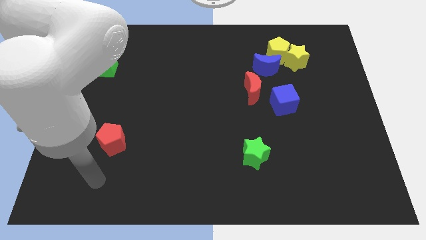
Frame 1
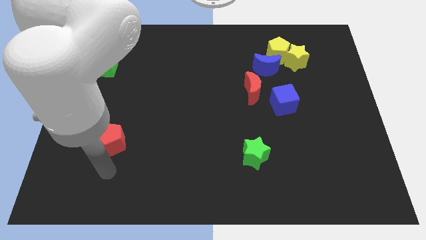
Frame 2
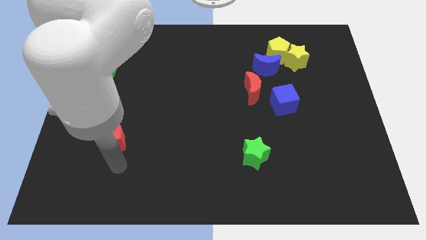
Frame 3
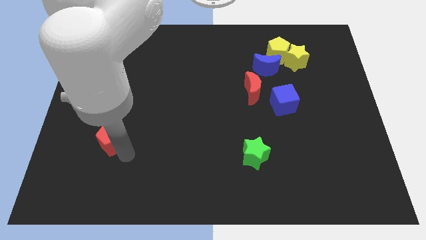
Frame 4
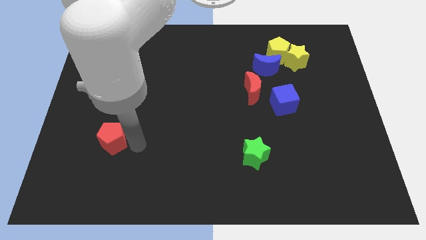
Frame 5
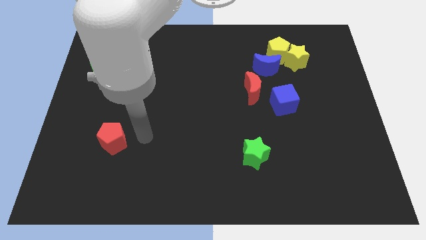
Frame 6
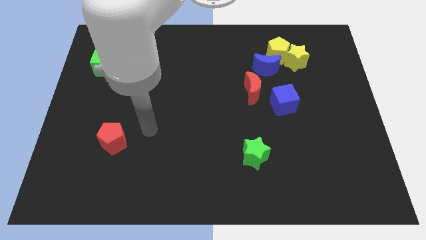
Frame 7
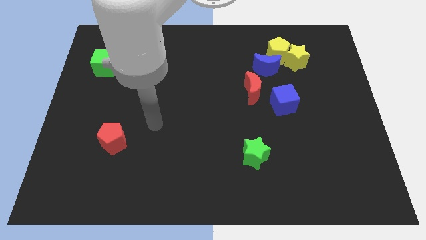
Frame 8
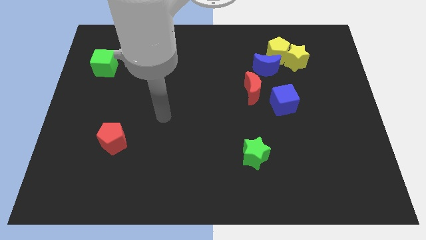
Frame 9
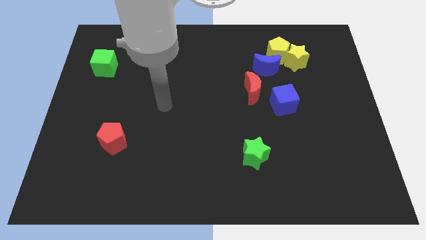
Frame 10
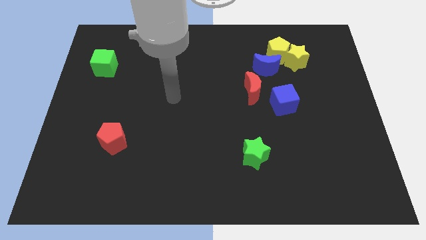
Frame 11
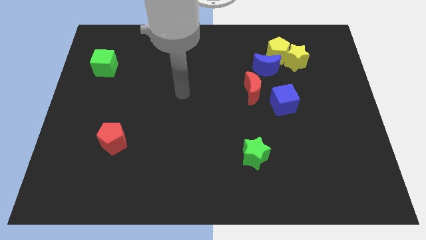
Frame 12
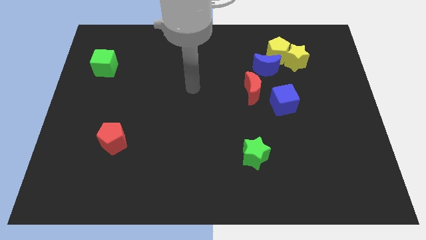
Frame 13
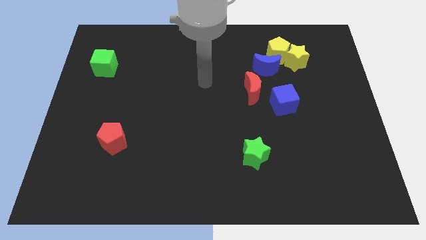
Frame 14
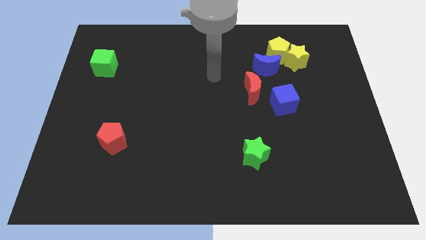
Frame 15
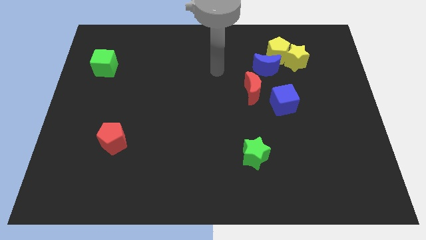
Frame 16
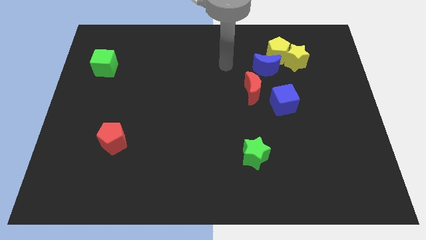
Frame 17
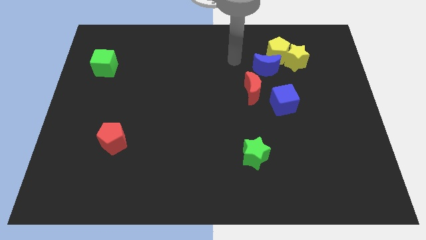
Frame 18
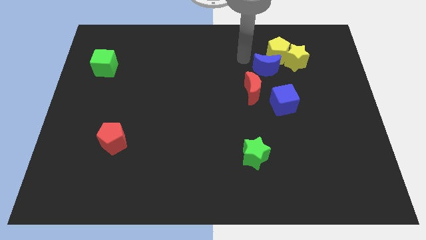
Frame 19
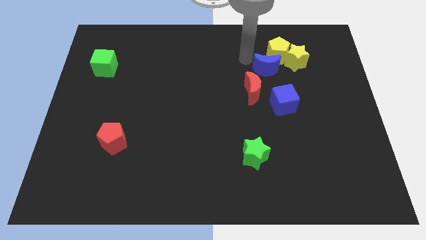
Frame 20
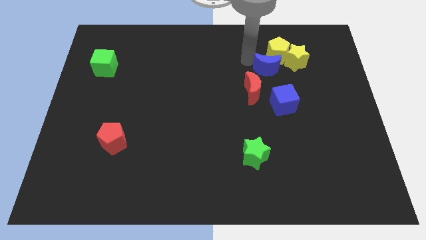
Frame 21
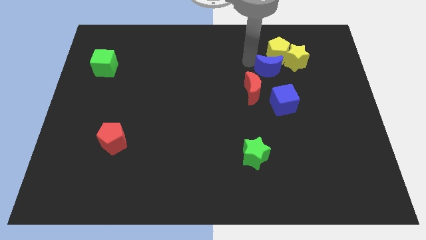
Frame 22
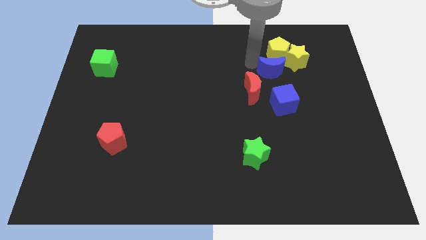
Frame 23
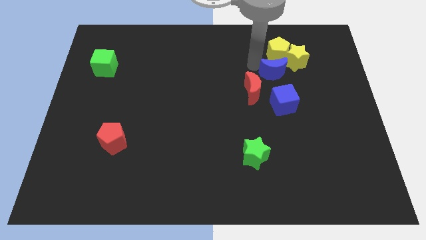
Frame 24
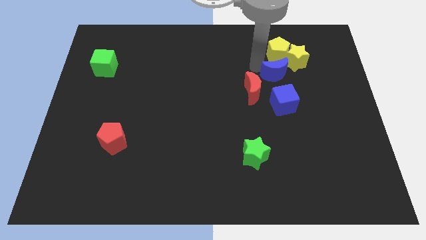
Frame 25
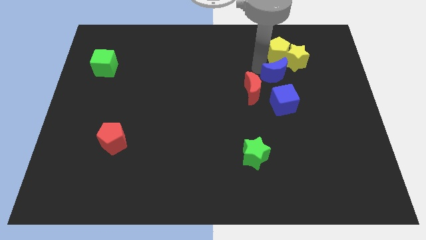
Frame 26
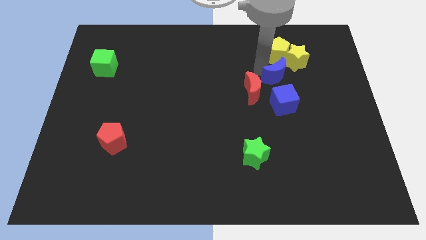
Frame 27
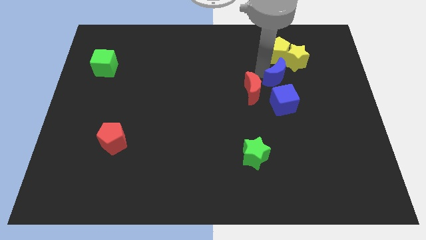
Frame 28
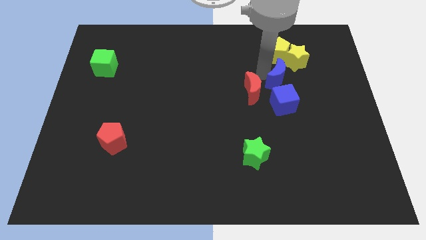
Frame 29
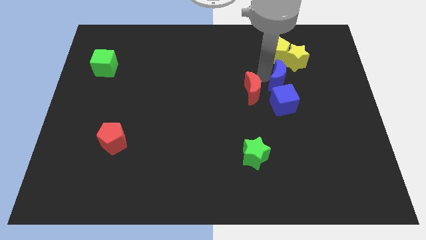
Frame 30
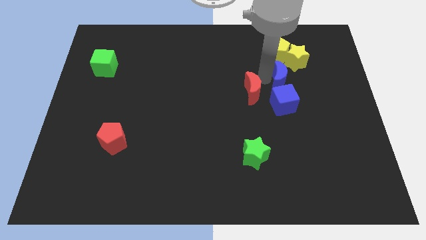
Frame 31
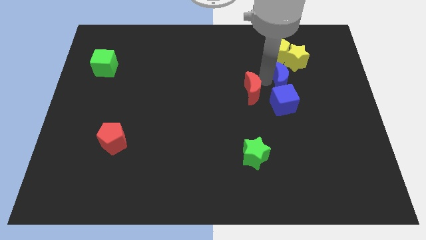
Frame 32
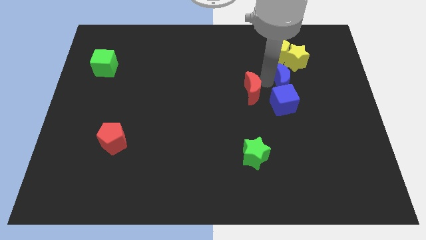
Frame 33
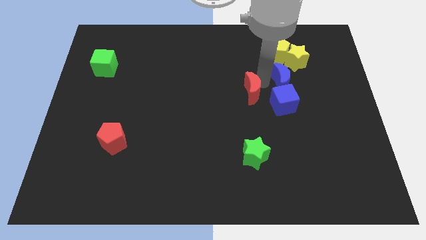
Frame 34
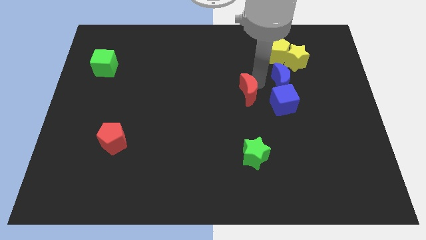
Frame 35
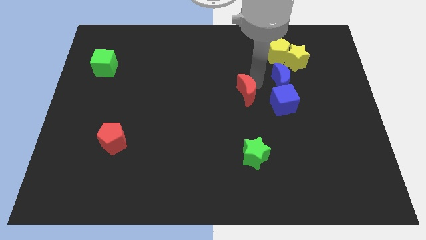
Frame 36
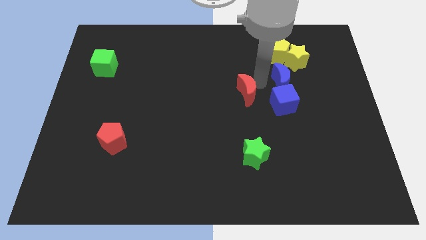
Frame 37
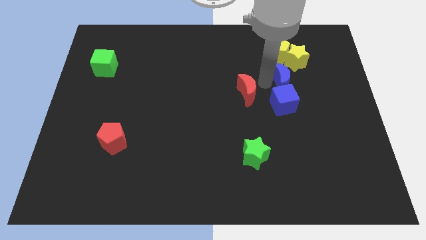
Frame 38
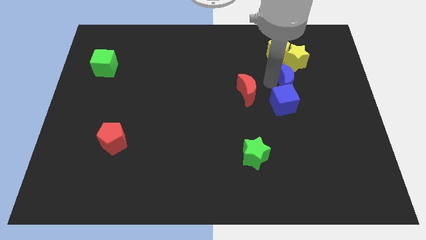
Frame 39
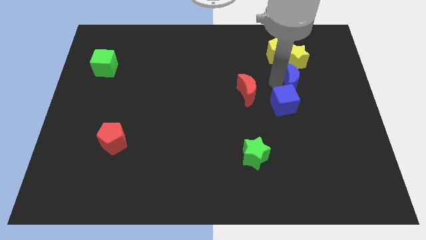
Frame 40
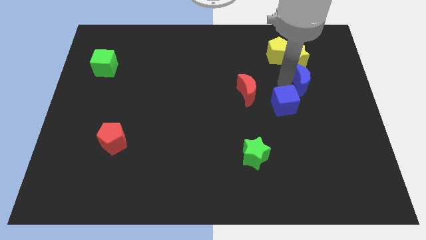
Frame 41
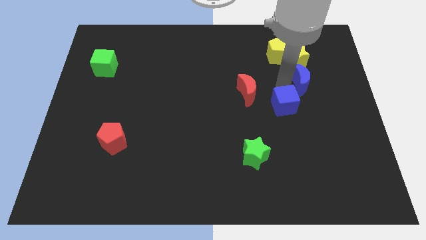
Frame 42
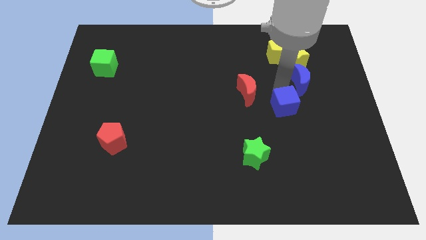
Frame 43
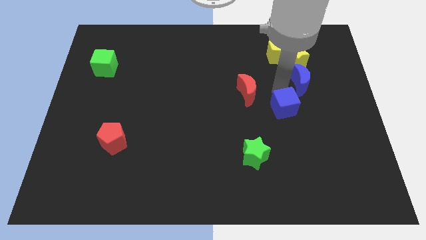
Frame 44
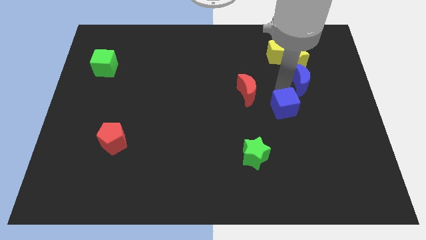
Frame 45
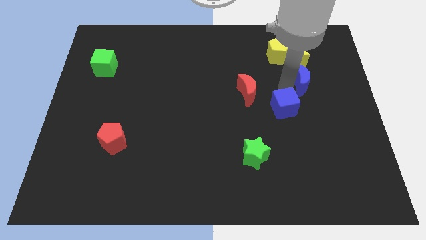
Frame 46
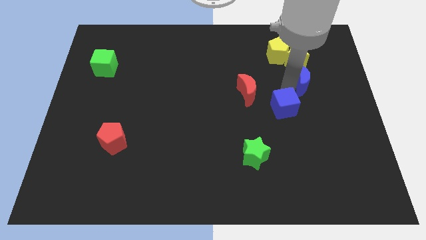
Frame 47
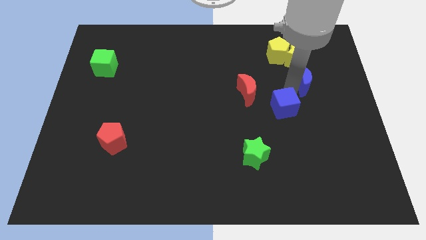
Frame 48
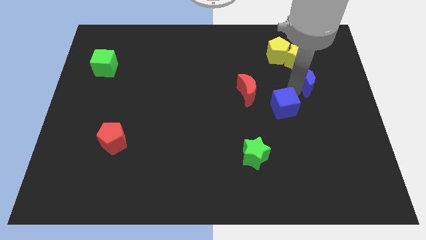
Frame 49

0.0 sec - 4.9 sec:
put the blue moon to the bottom right side of the yellow star

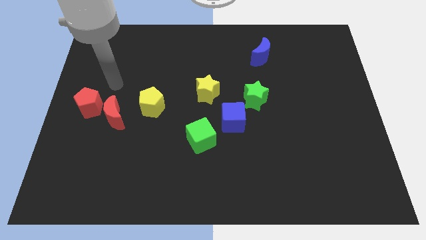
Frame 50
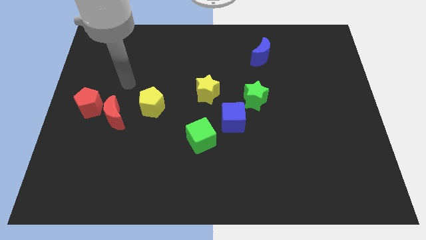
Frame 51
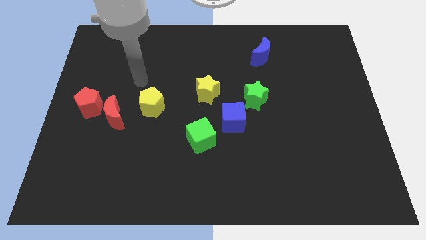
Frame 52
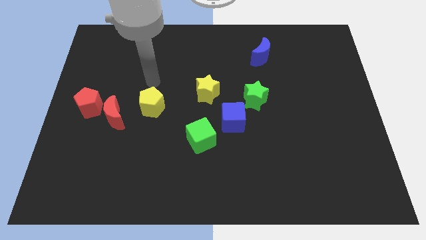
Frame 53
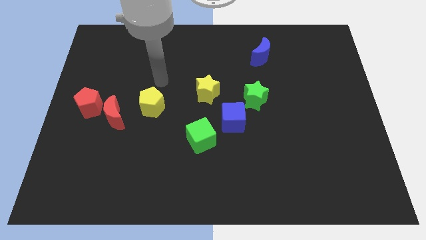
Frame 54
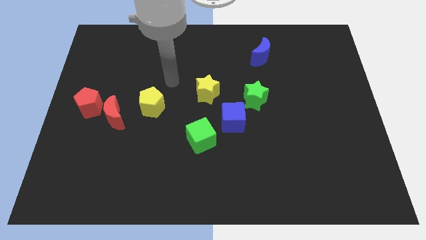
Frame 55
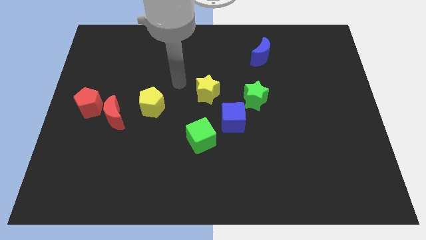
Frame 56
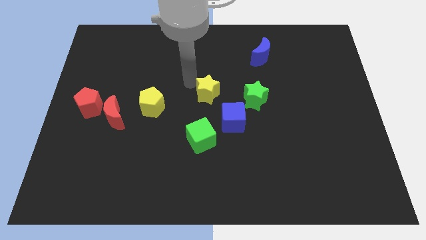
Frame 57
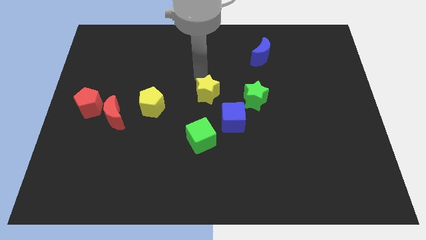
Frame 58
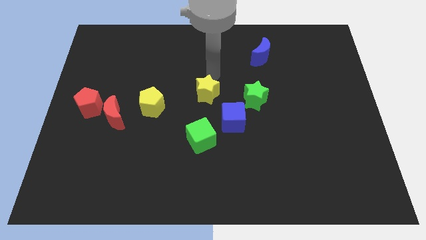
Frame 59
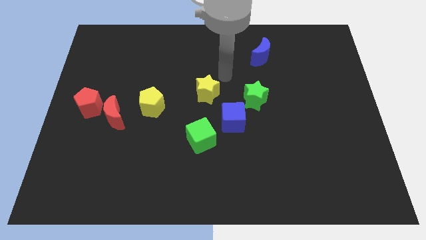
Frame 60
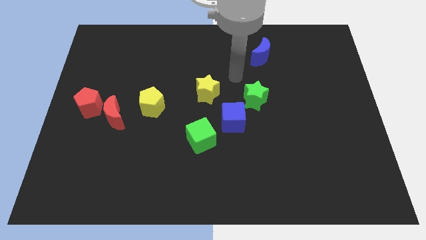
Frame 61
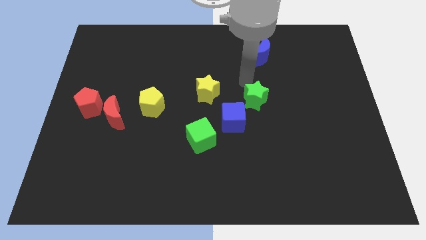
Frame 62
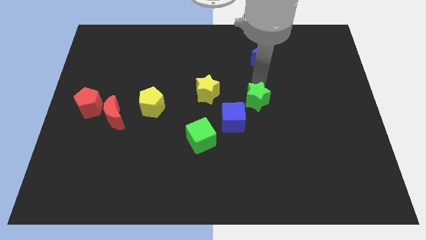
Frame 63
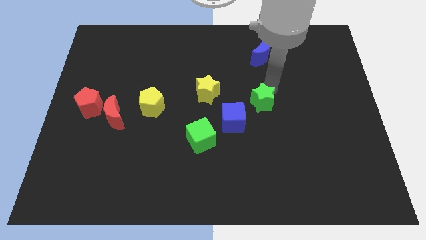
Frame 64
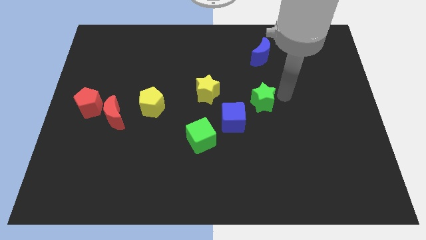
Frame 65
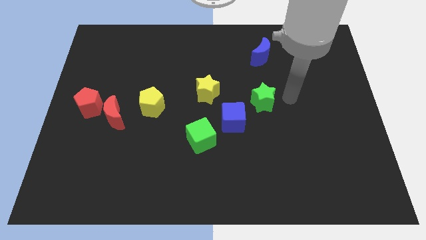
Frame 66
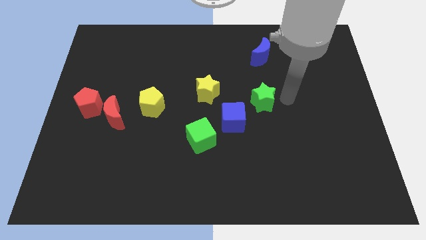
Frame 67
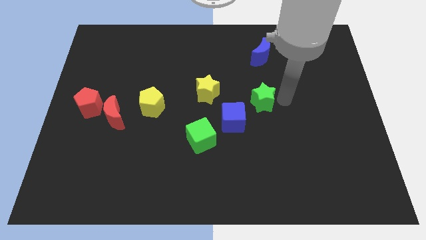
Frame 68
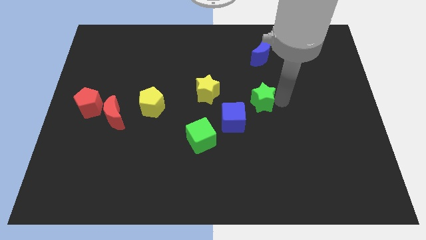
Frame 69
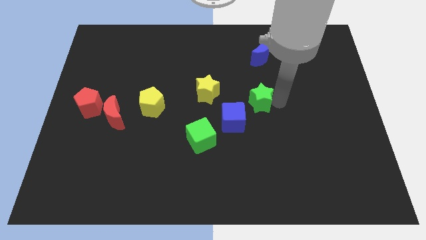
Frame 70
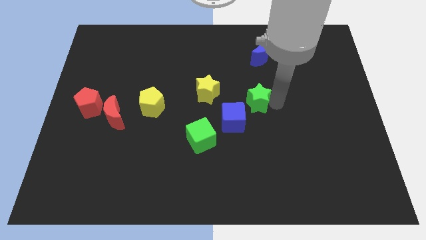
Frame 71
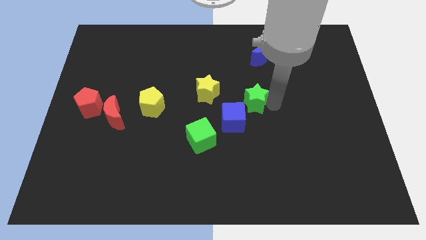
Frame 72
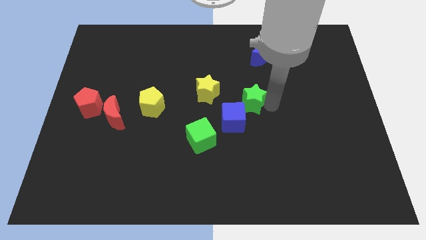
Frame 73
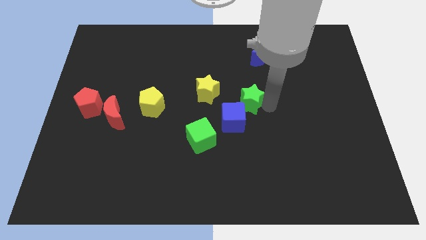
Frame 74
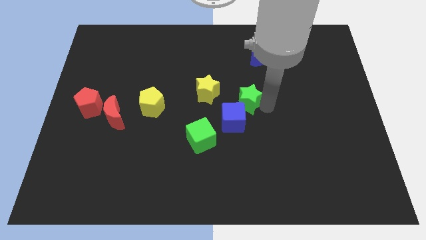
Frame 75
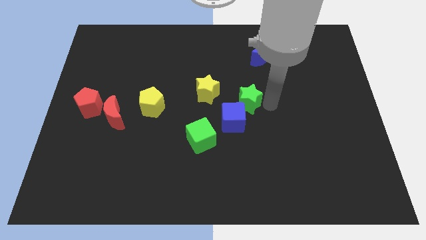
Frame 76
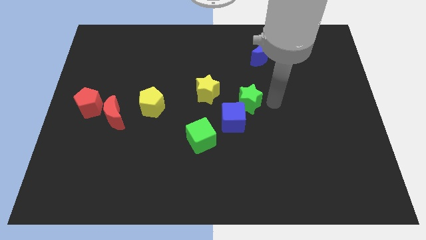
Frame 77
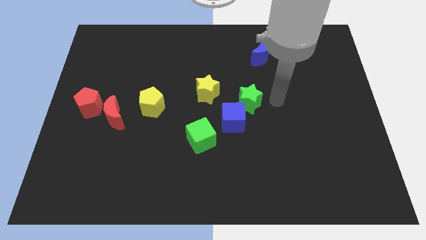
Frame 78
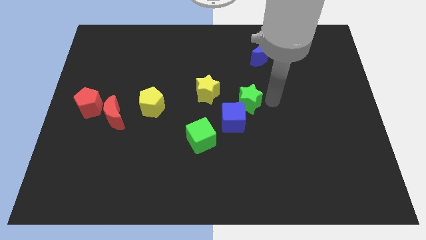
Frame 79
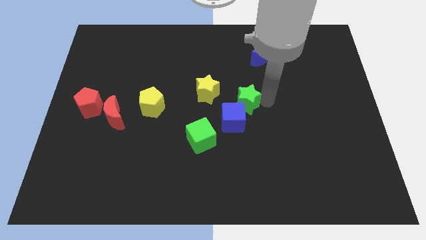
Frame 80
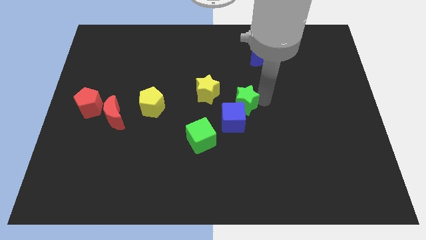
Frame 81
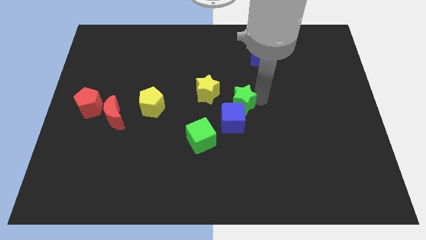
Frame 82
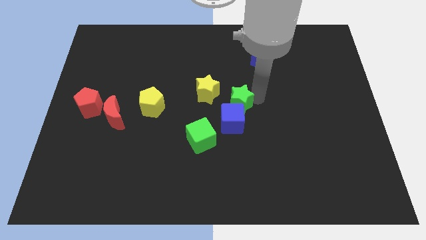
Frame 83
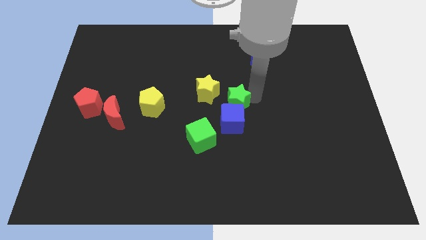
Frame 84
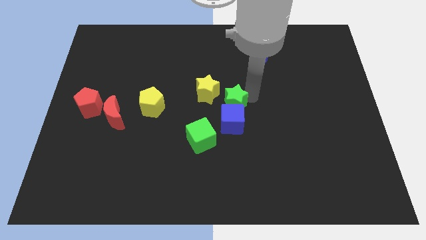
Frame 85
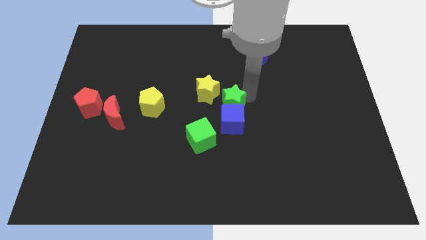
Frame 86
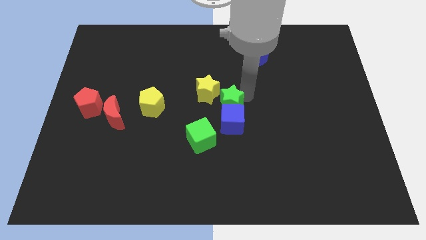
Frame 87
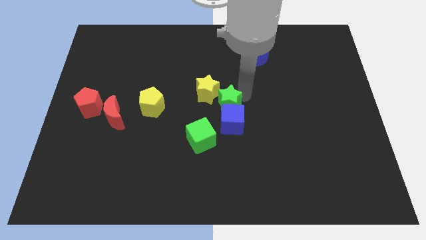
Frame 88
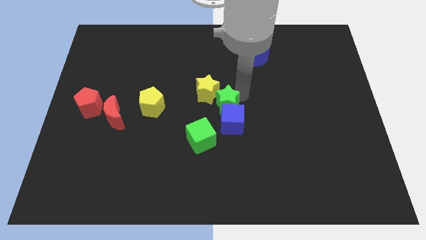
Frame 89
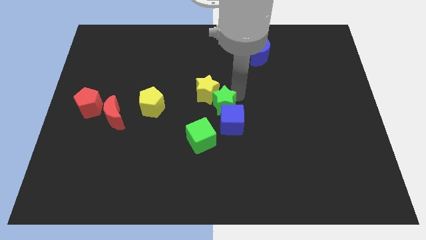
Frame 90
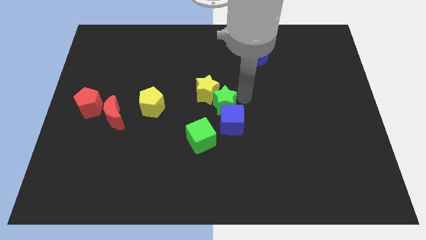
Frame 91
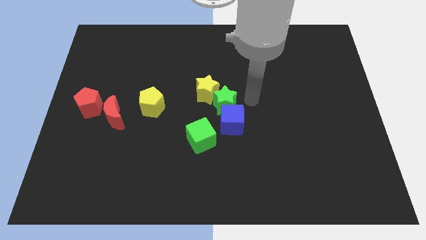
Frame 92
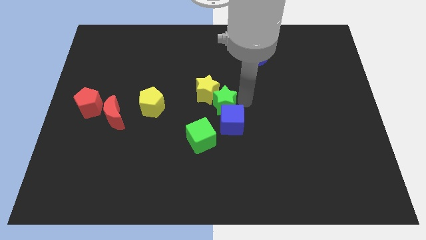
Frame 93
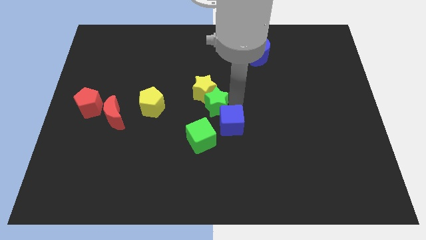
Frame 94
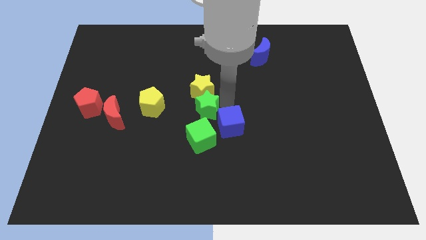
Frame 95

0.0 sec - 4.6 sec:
put the green star to the bottom left of the yellow star
